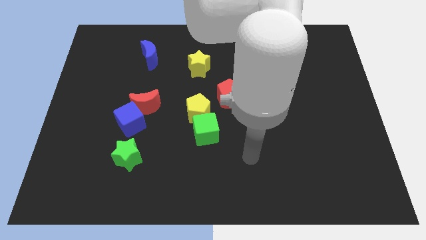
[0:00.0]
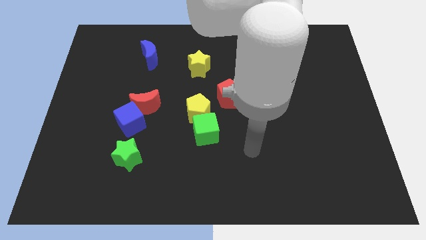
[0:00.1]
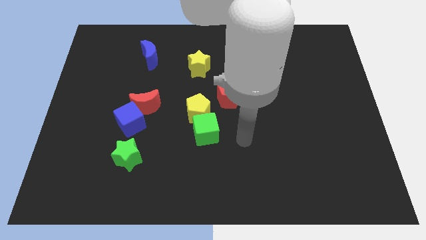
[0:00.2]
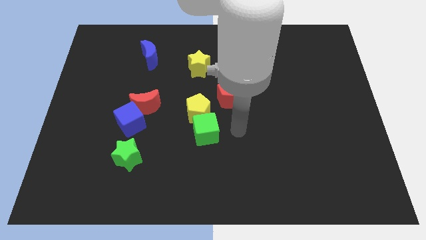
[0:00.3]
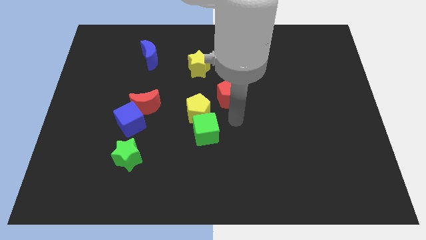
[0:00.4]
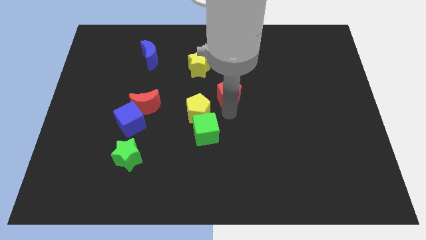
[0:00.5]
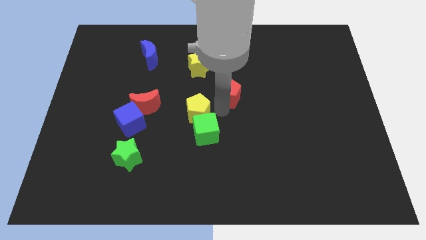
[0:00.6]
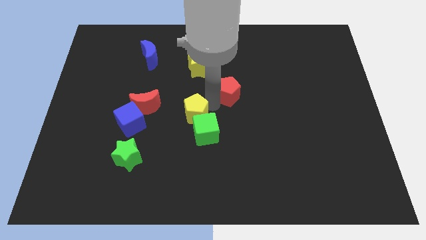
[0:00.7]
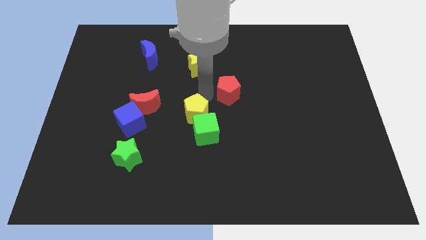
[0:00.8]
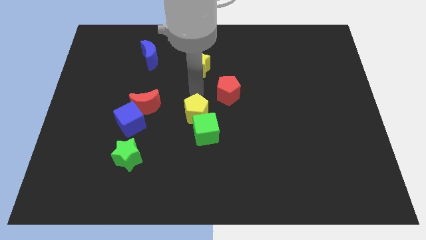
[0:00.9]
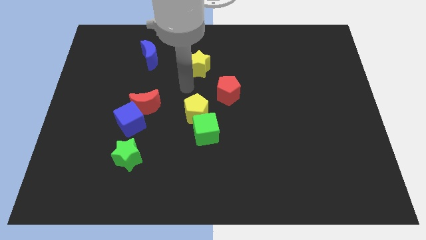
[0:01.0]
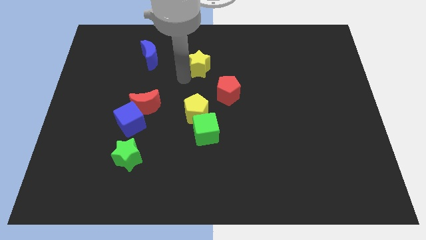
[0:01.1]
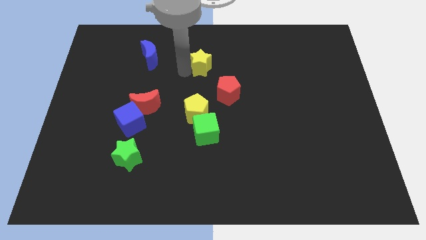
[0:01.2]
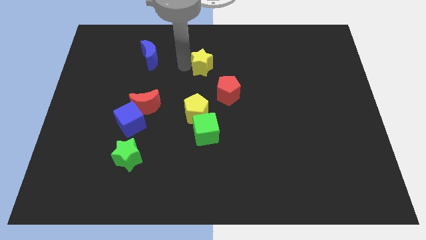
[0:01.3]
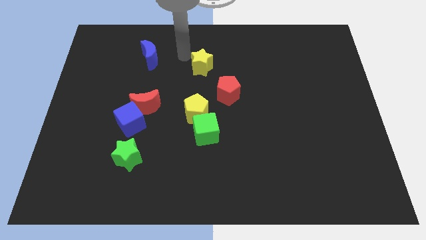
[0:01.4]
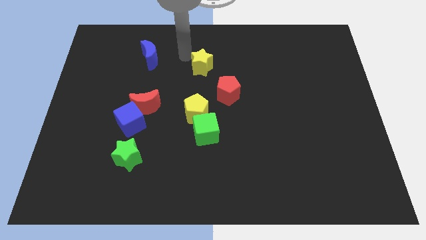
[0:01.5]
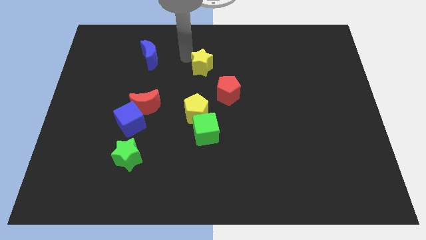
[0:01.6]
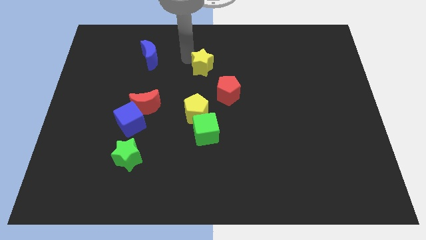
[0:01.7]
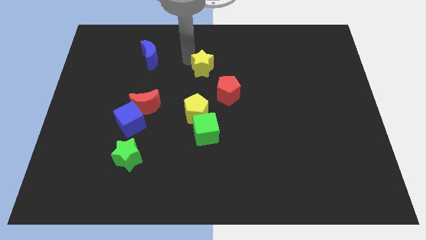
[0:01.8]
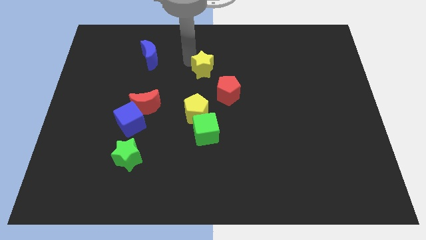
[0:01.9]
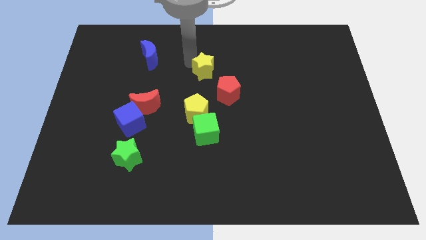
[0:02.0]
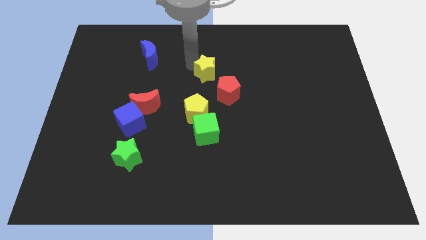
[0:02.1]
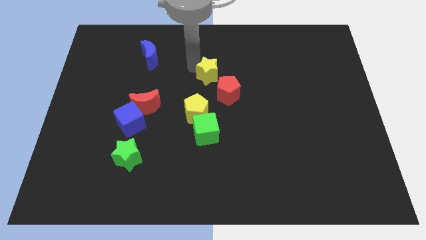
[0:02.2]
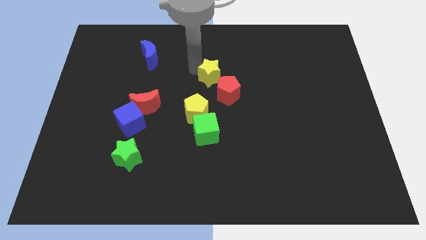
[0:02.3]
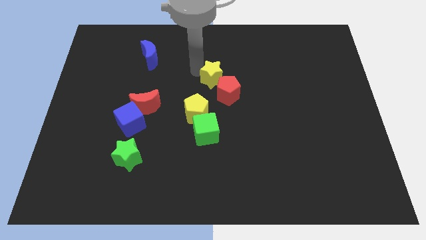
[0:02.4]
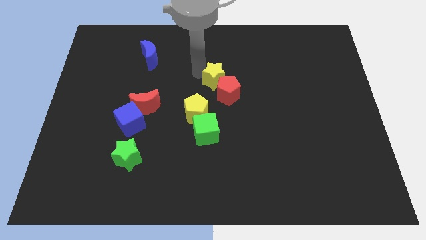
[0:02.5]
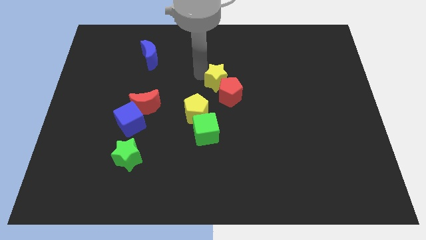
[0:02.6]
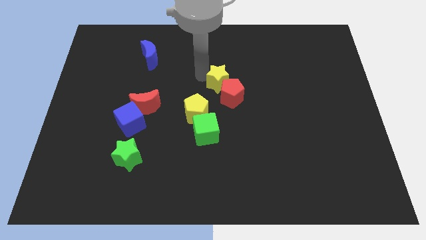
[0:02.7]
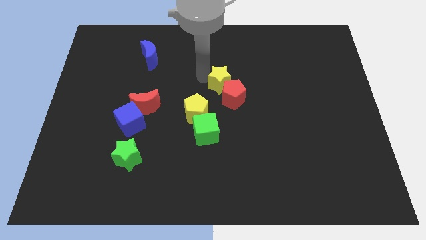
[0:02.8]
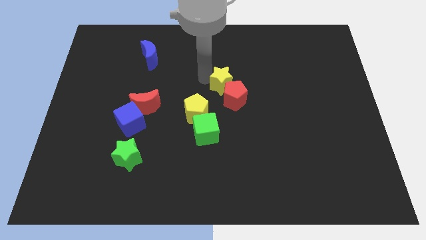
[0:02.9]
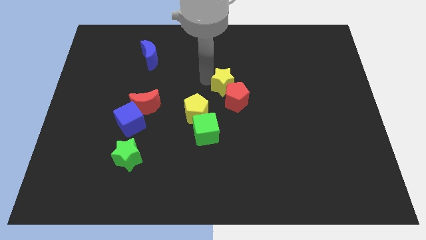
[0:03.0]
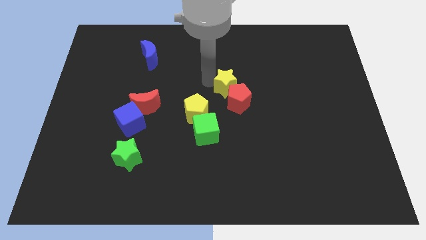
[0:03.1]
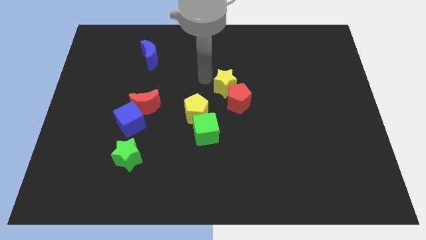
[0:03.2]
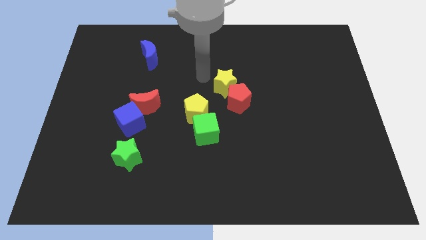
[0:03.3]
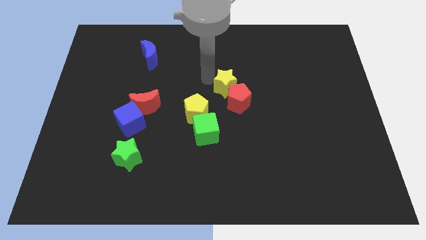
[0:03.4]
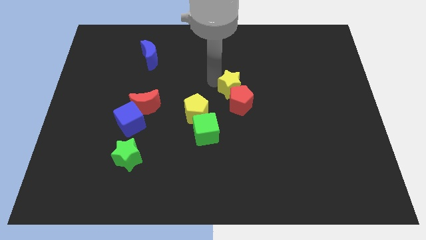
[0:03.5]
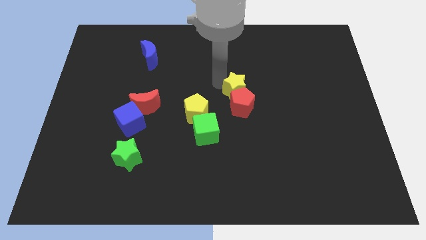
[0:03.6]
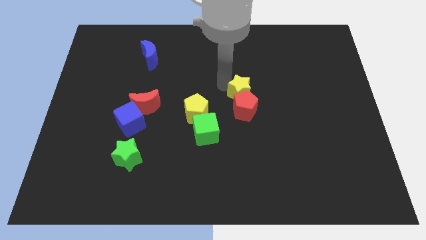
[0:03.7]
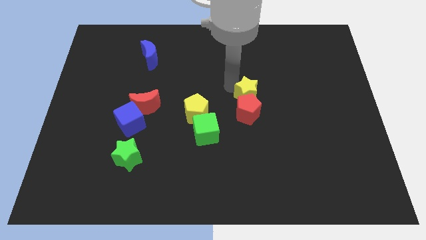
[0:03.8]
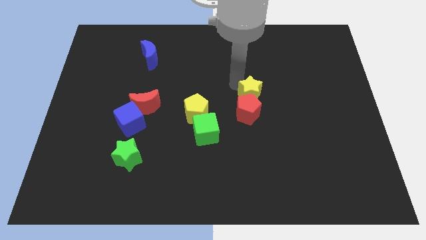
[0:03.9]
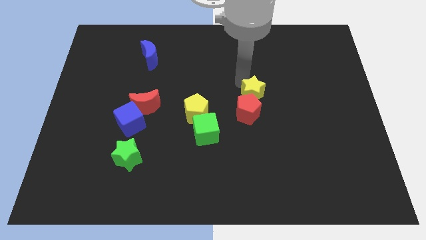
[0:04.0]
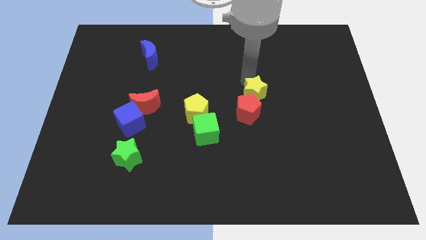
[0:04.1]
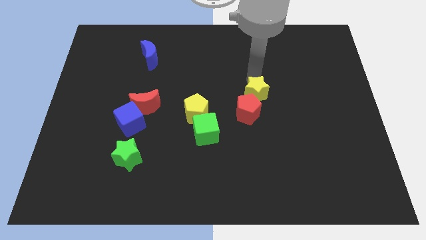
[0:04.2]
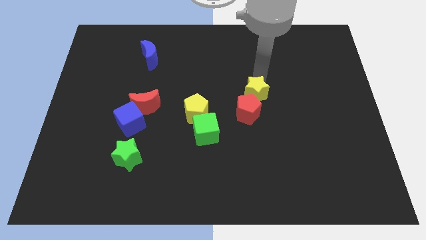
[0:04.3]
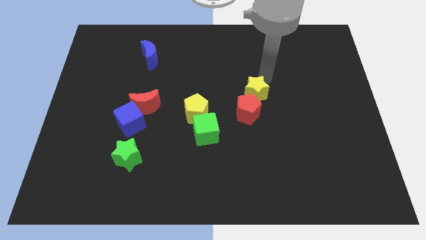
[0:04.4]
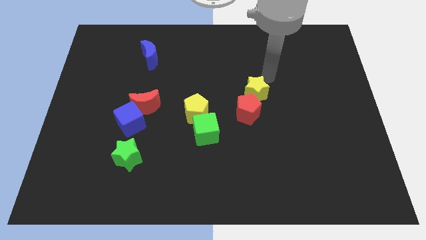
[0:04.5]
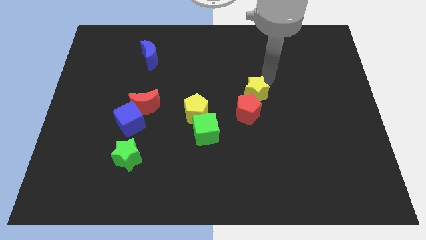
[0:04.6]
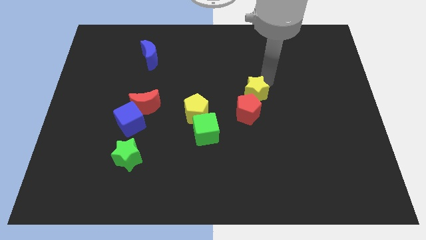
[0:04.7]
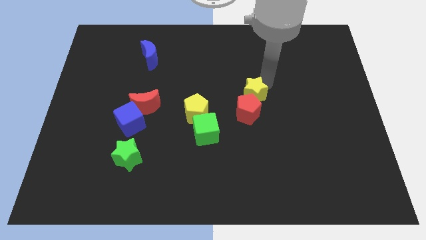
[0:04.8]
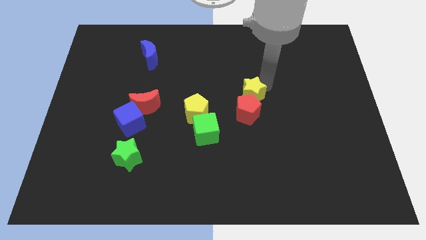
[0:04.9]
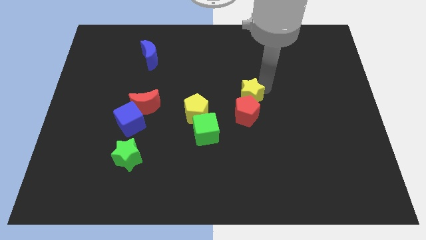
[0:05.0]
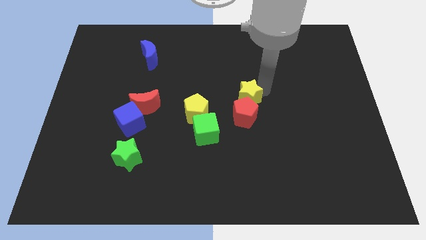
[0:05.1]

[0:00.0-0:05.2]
slide the yellow star right of the yellow pentagon

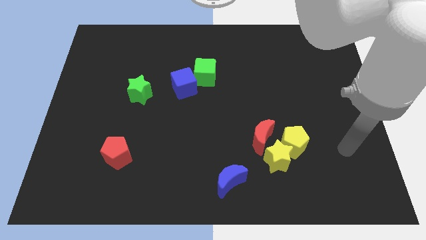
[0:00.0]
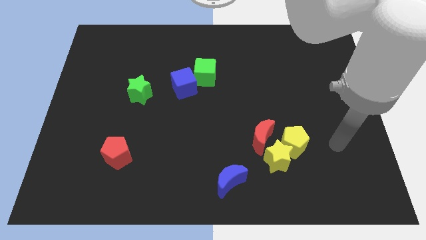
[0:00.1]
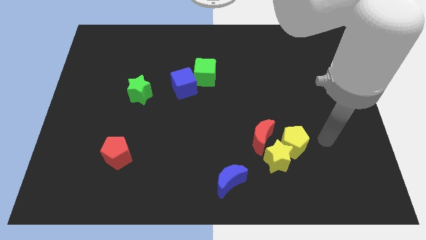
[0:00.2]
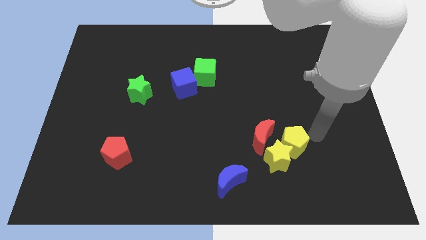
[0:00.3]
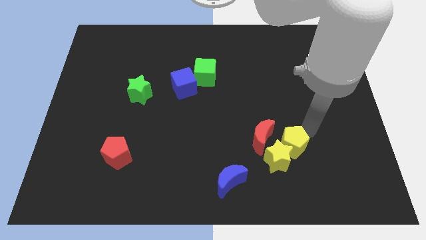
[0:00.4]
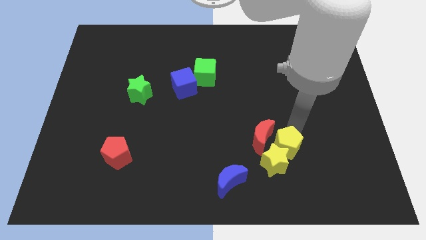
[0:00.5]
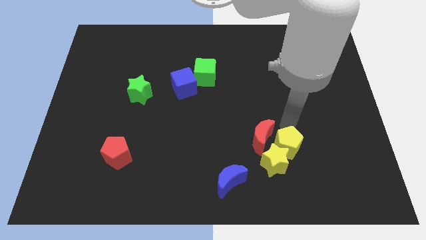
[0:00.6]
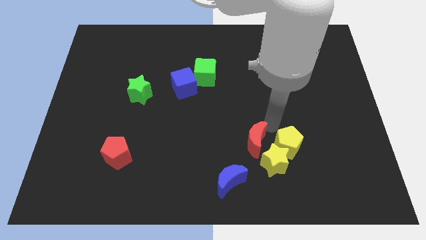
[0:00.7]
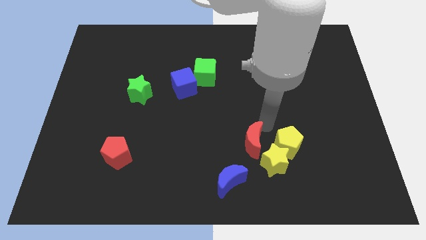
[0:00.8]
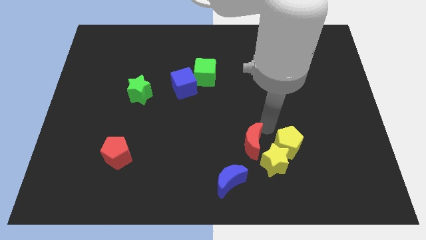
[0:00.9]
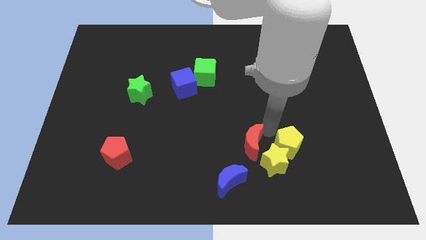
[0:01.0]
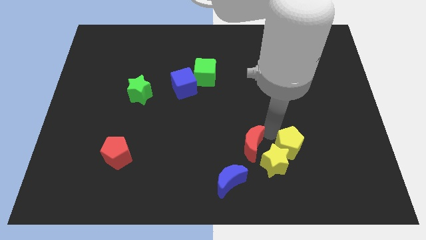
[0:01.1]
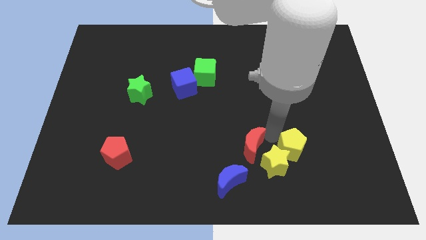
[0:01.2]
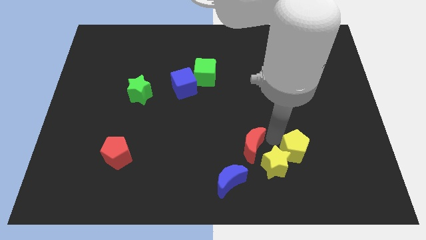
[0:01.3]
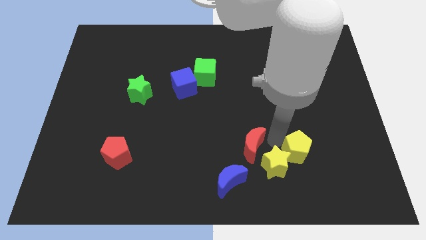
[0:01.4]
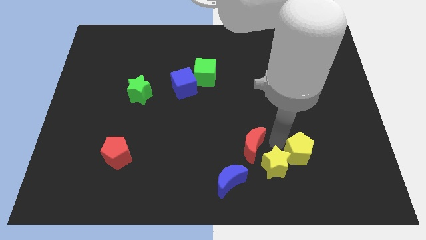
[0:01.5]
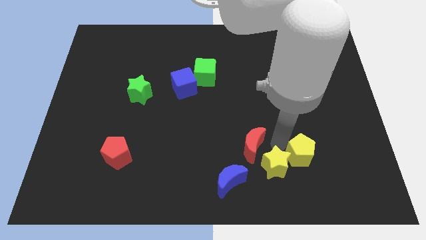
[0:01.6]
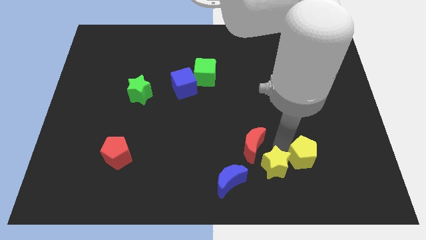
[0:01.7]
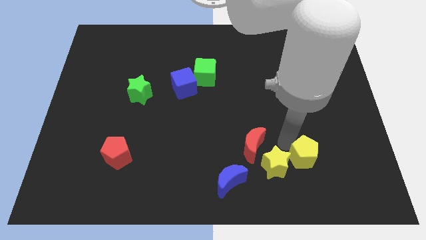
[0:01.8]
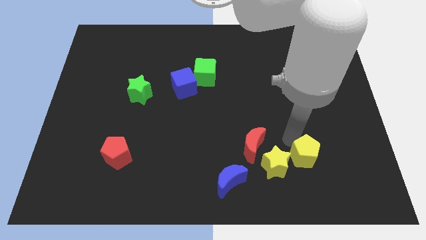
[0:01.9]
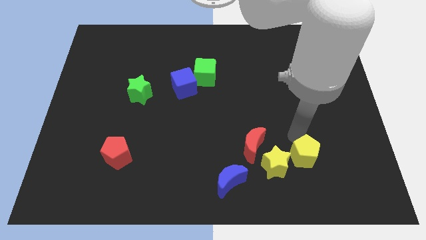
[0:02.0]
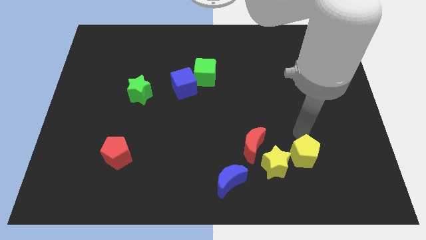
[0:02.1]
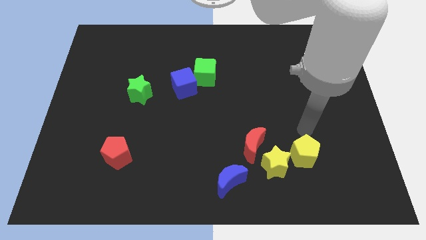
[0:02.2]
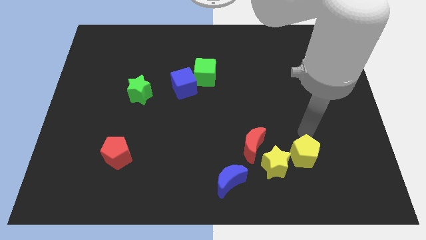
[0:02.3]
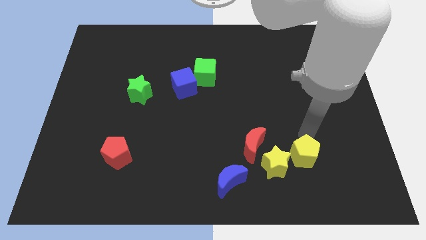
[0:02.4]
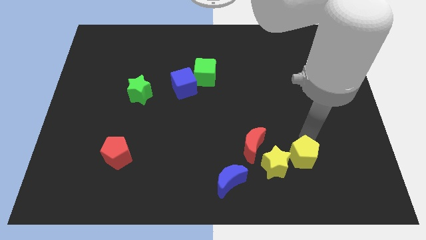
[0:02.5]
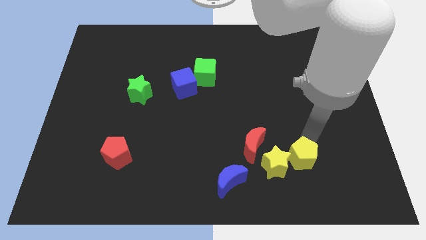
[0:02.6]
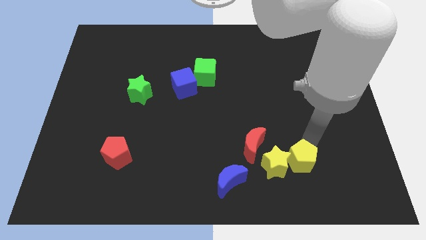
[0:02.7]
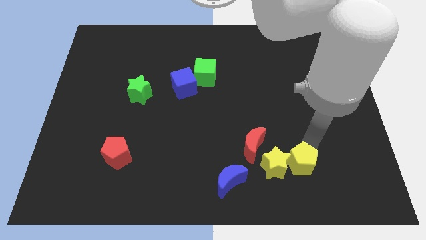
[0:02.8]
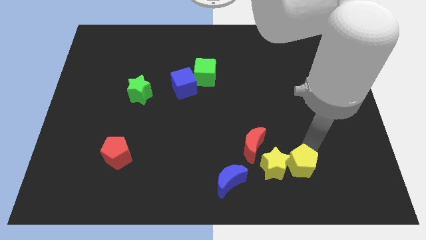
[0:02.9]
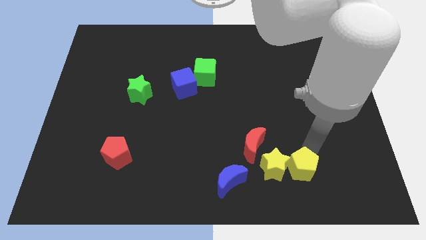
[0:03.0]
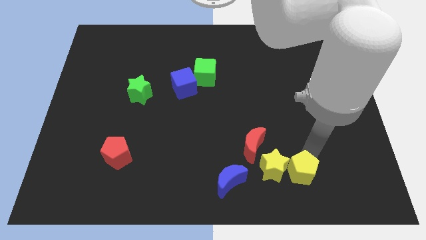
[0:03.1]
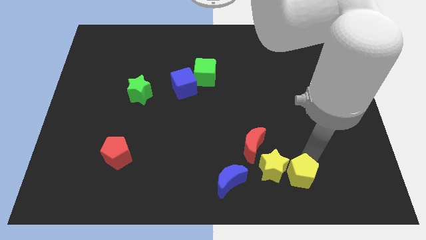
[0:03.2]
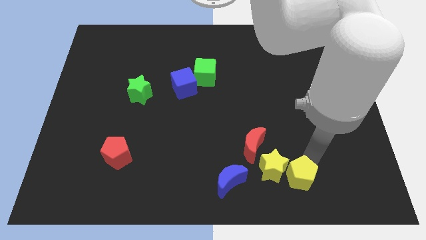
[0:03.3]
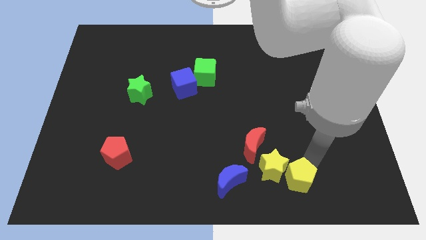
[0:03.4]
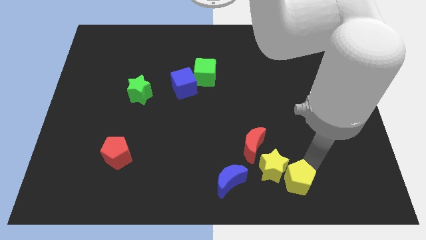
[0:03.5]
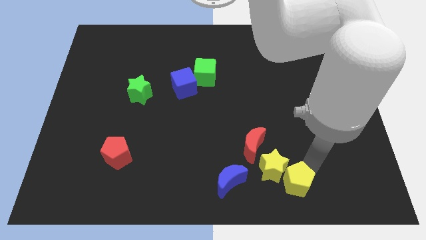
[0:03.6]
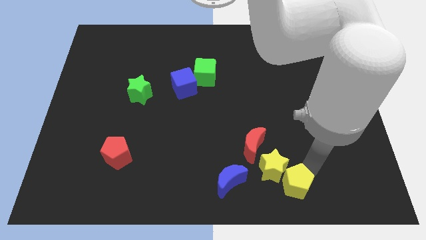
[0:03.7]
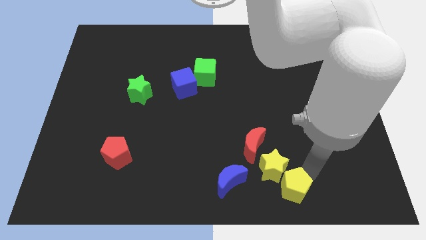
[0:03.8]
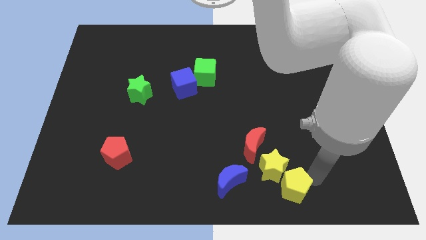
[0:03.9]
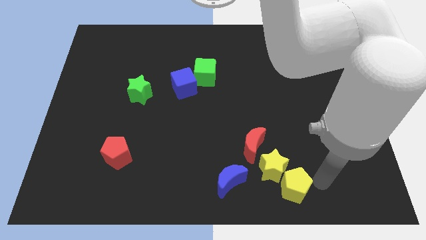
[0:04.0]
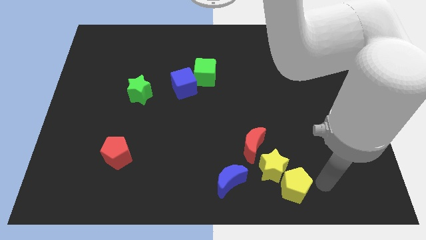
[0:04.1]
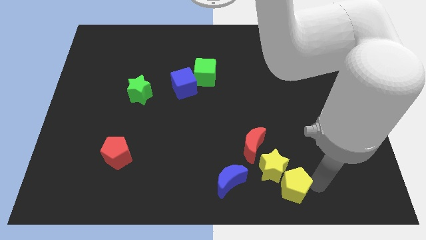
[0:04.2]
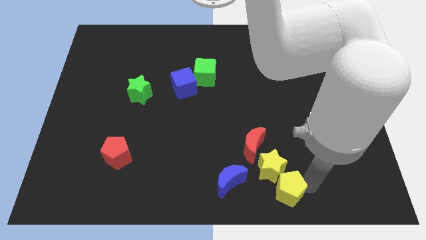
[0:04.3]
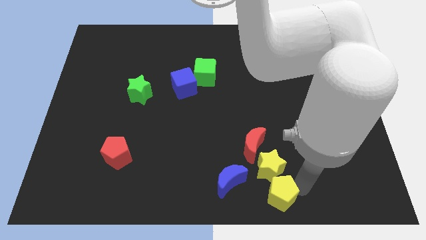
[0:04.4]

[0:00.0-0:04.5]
move the yellow pentagon below the red moon
